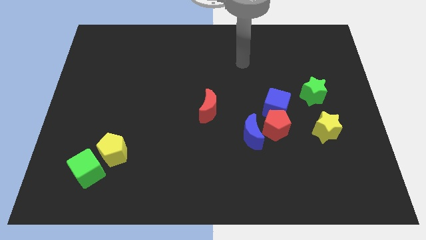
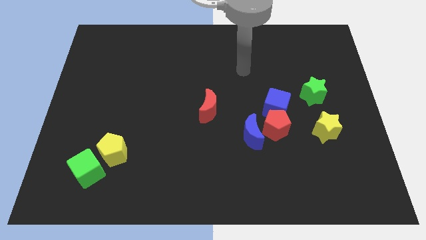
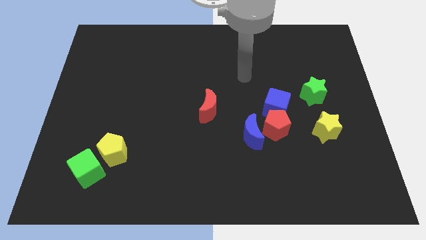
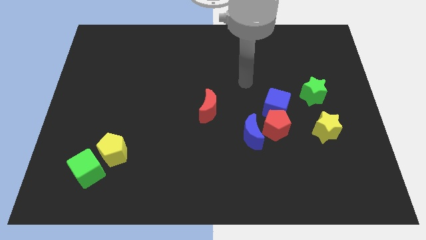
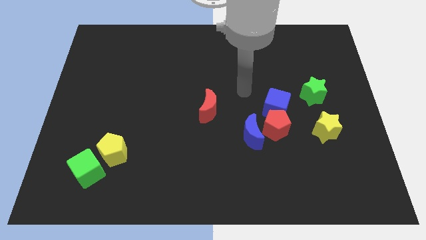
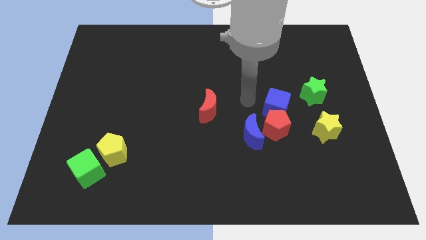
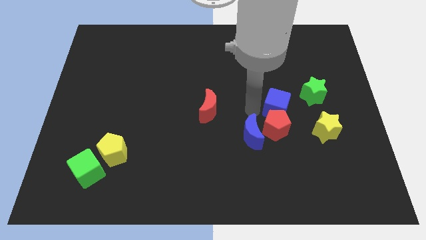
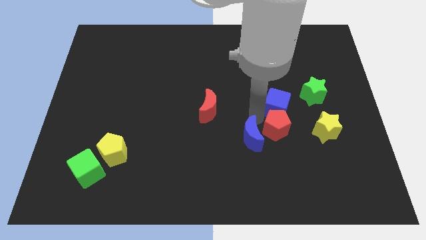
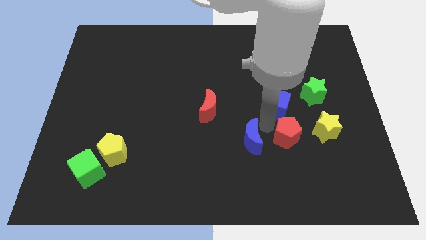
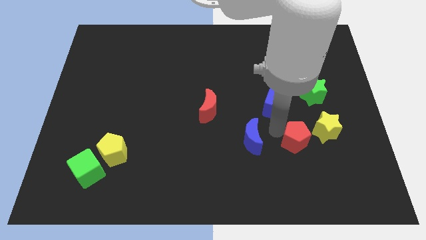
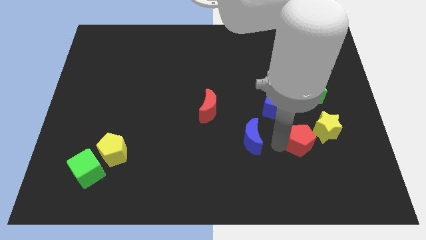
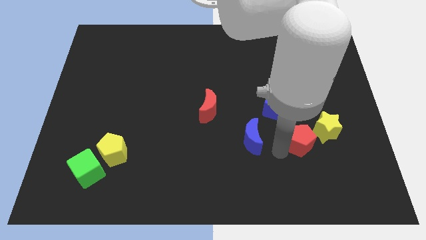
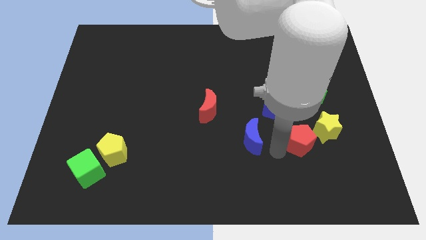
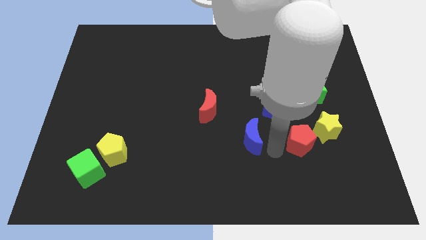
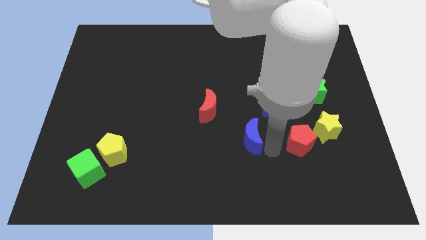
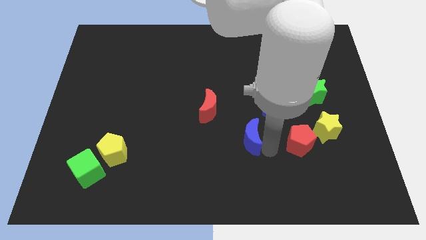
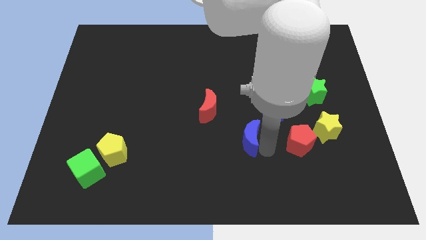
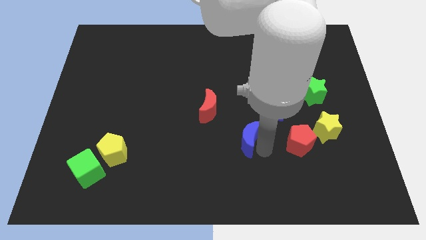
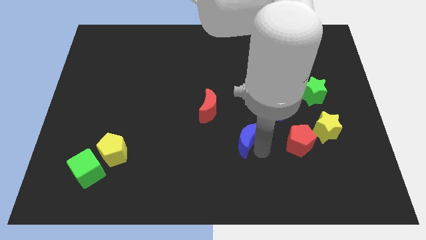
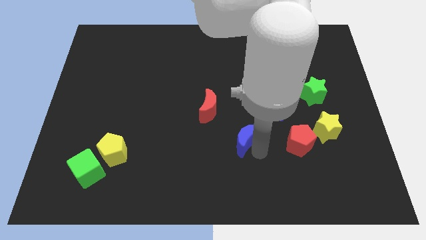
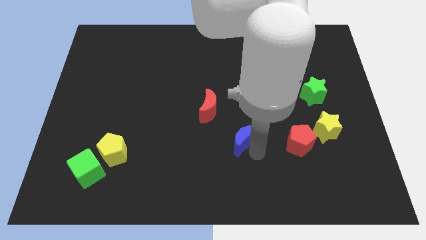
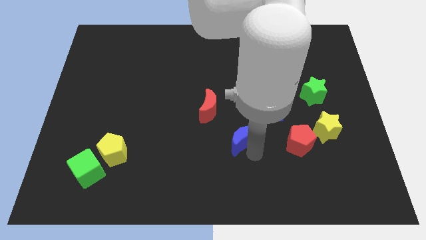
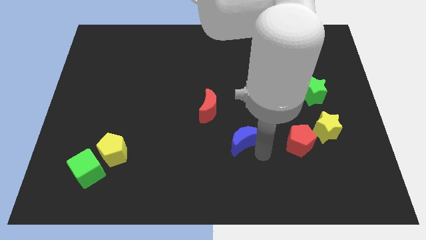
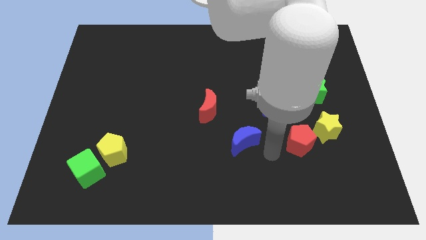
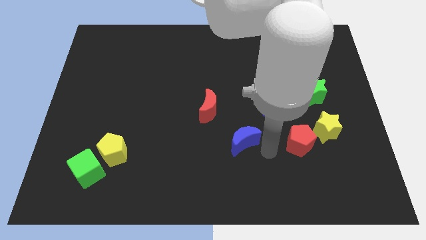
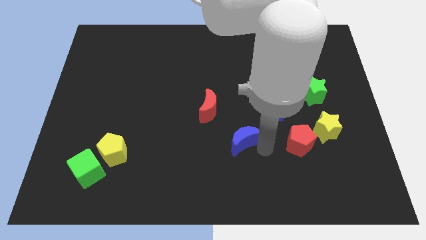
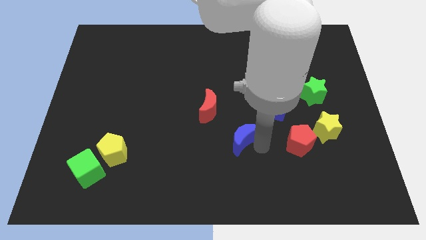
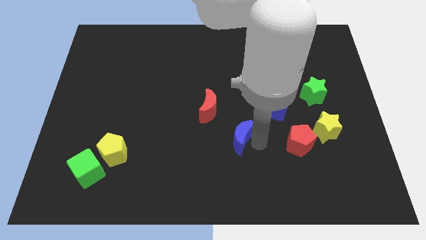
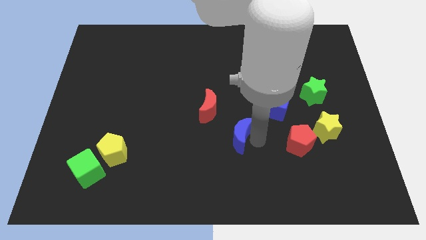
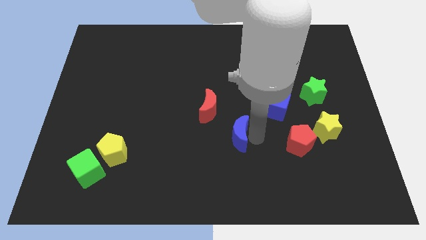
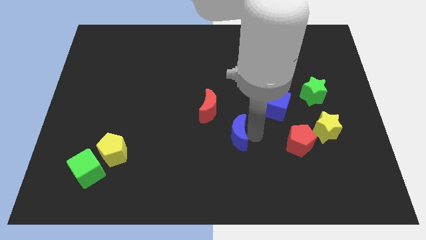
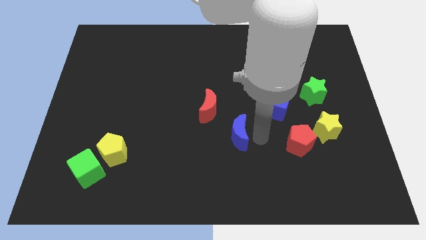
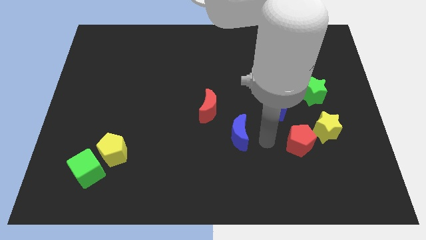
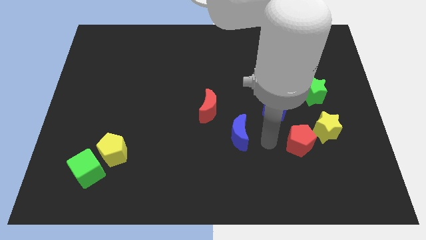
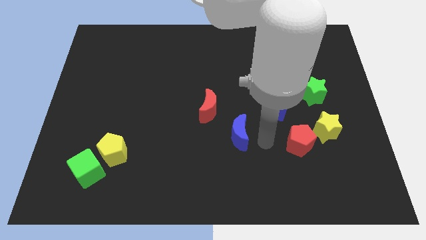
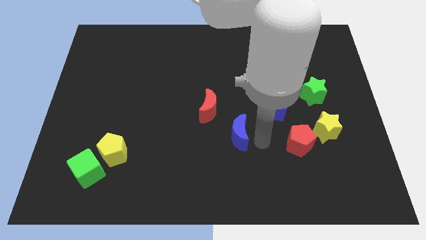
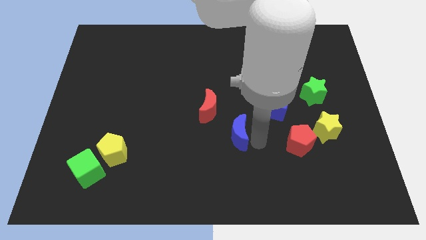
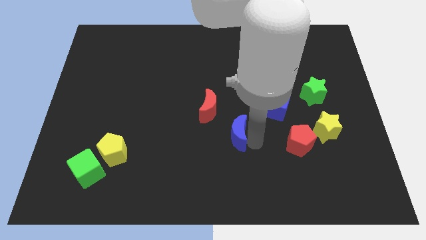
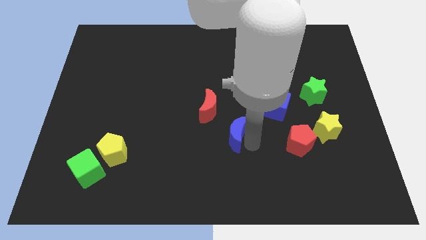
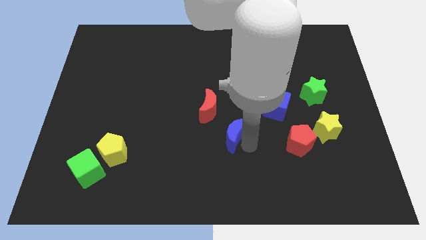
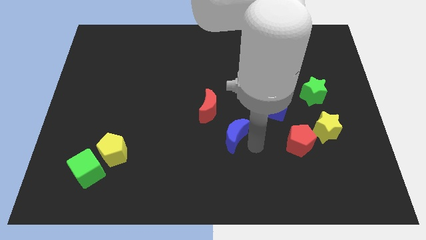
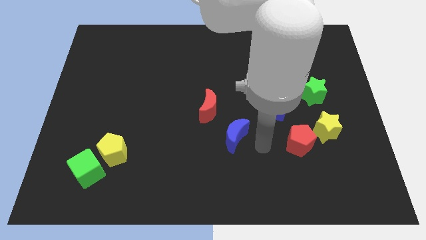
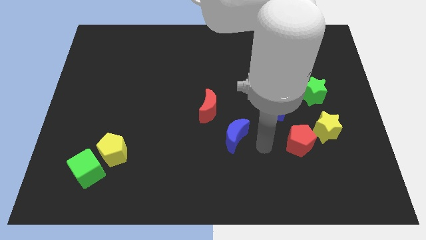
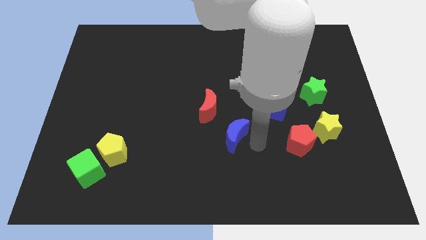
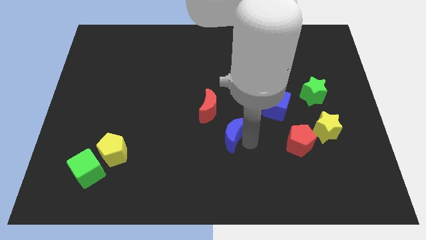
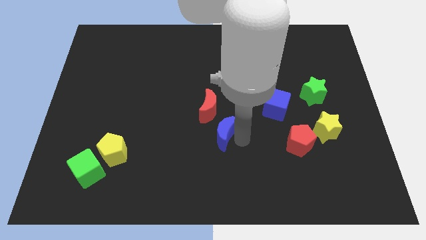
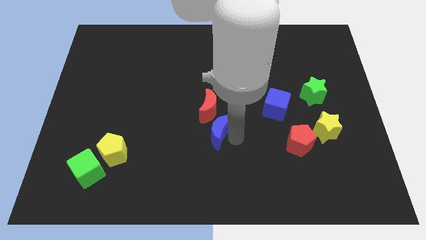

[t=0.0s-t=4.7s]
push the blue moon to the left a little

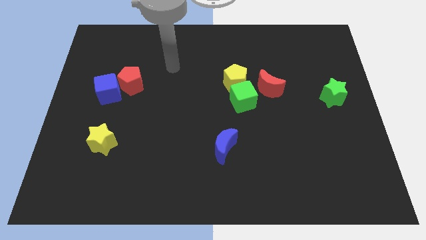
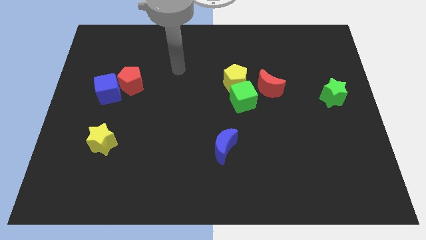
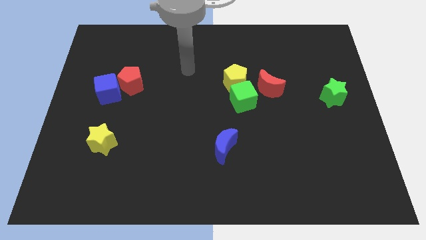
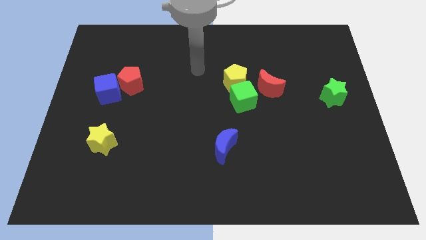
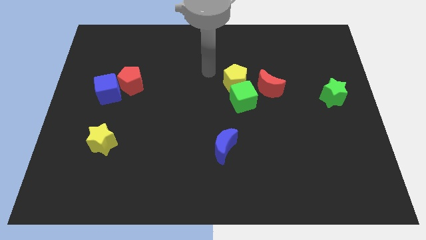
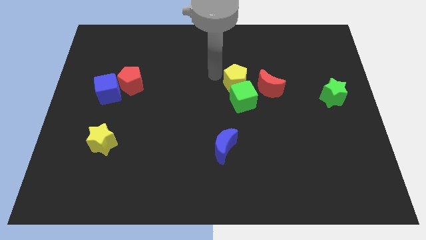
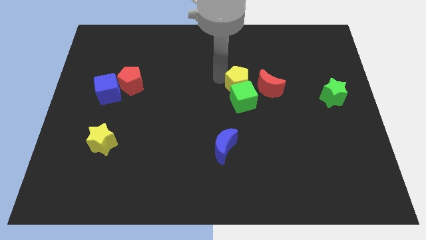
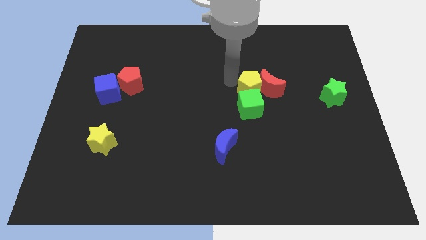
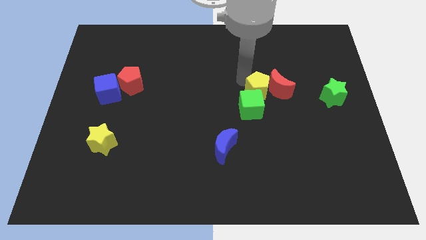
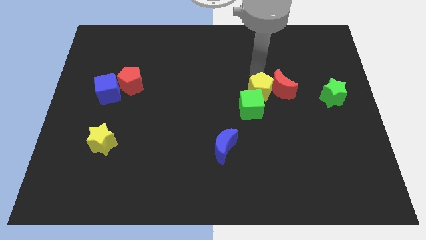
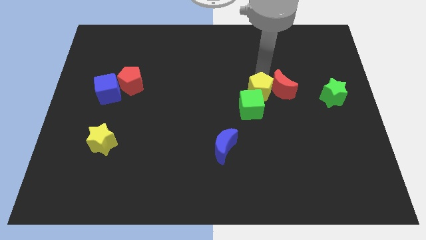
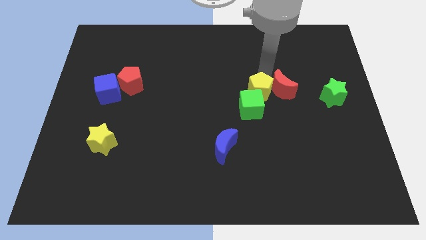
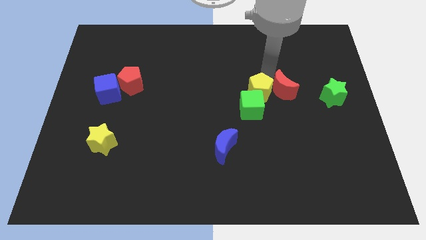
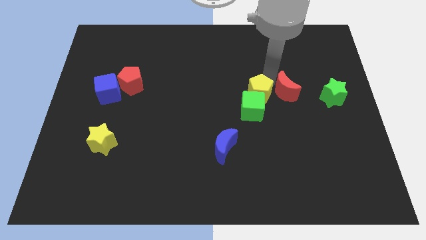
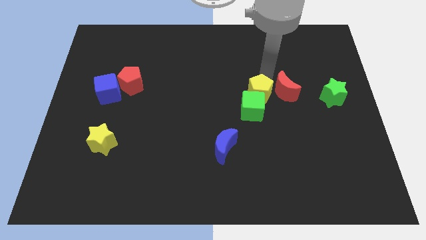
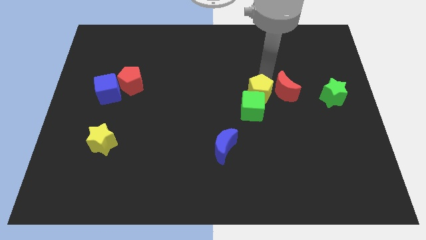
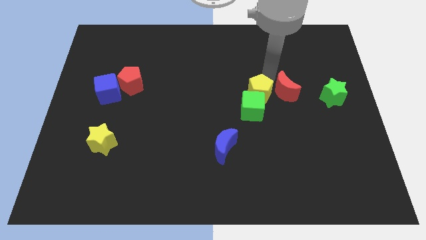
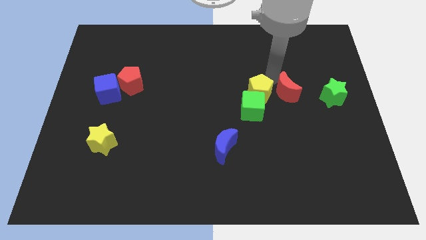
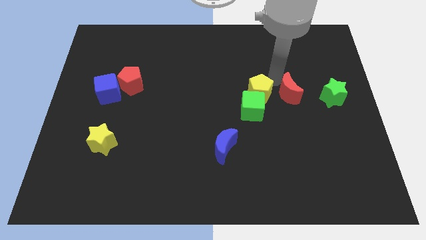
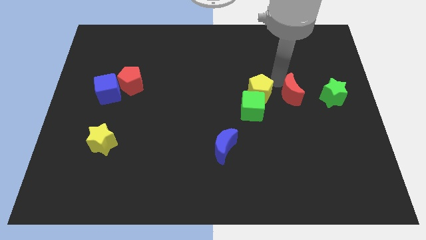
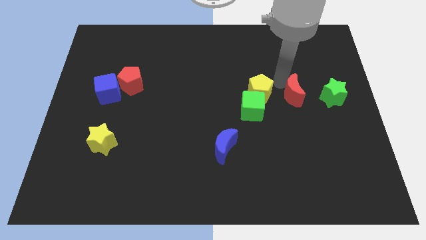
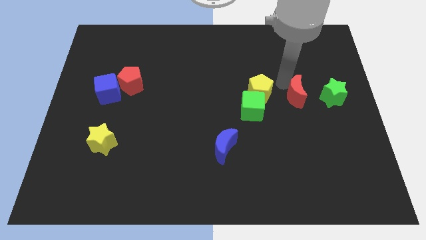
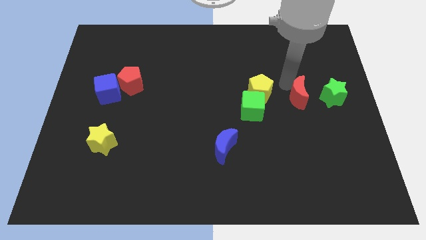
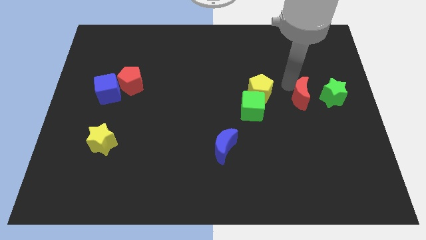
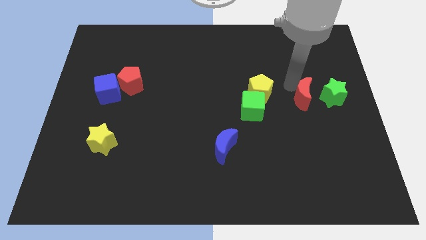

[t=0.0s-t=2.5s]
slide the red moon downwards and right diagonally slightly

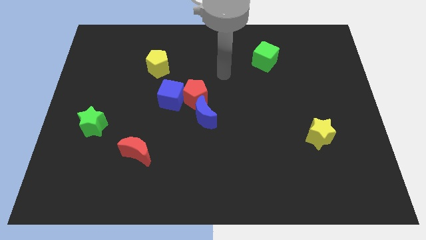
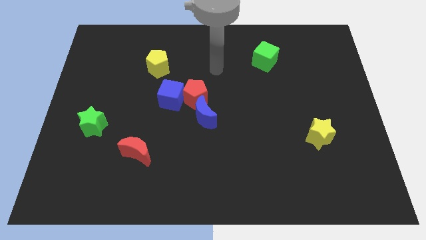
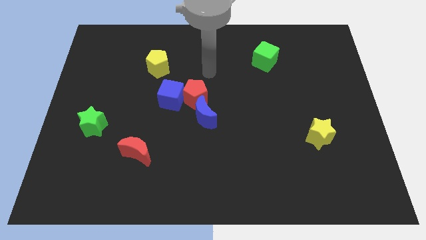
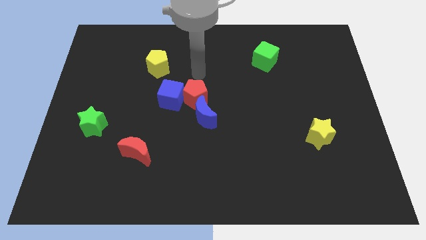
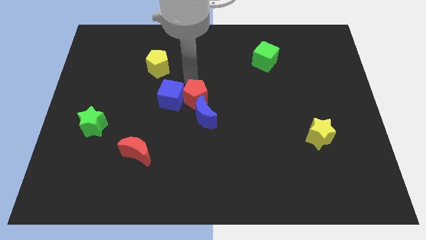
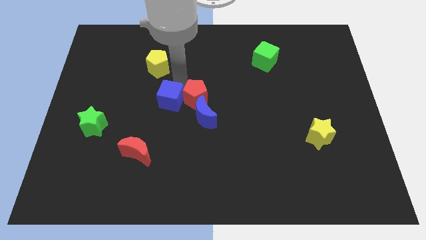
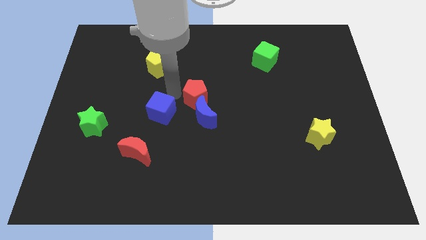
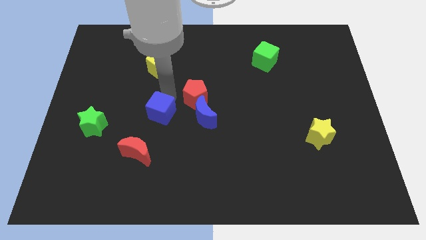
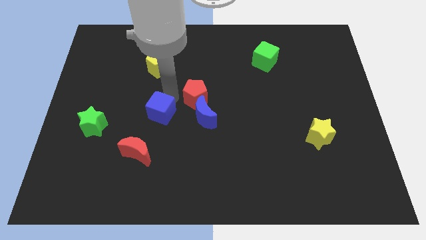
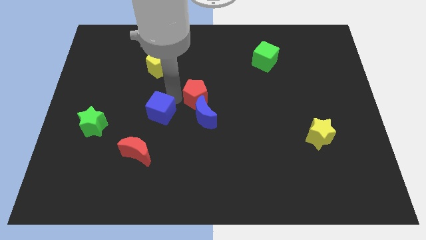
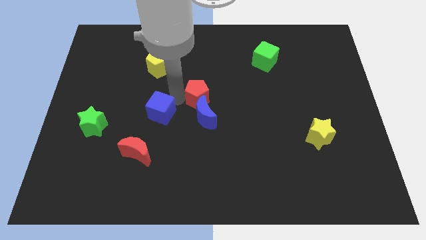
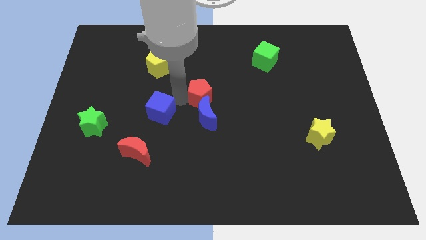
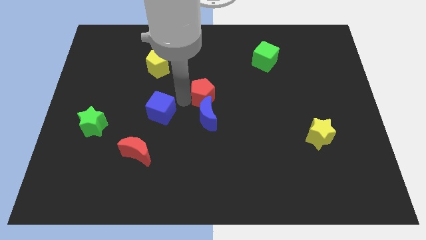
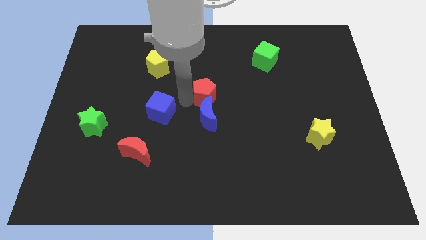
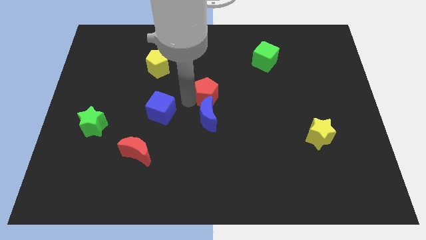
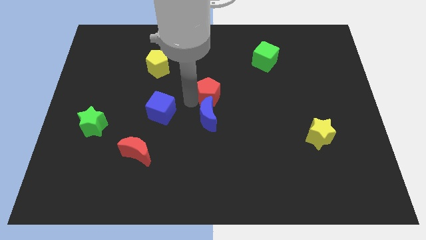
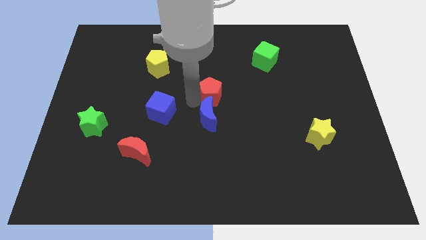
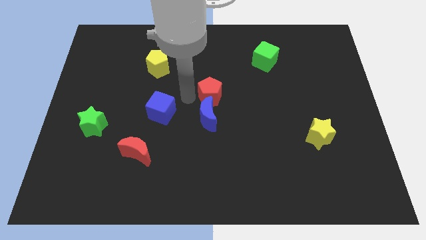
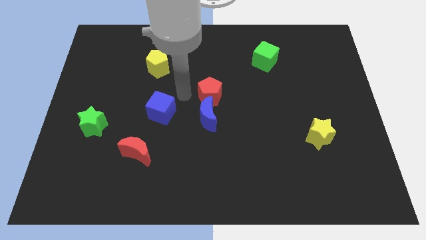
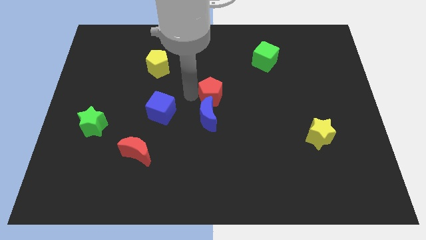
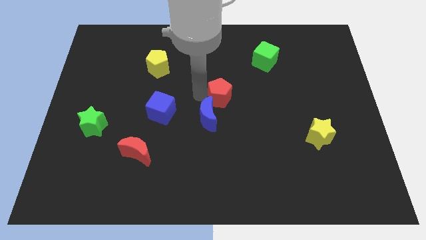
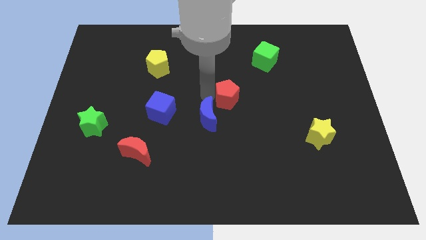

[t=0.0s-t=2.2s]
move the red pentagon somewhat right
